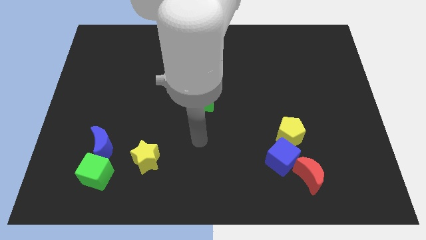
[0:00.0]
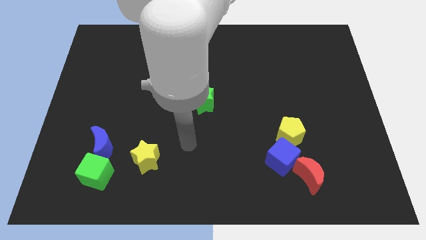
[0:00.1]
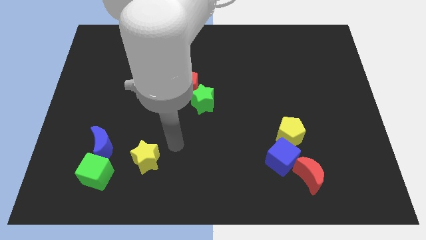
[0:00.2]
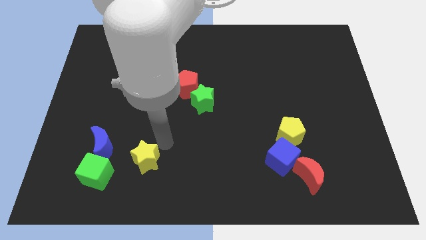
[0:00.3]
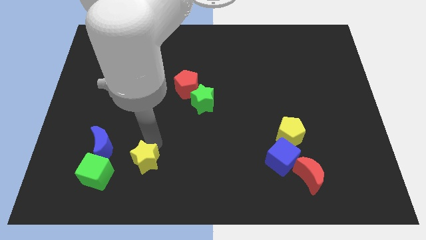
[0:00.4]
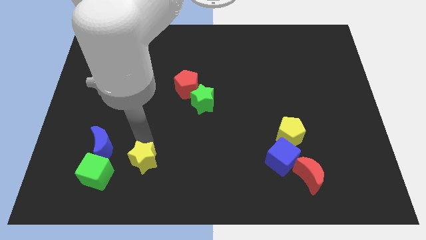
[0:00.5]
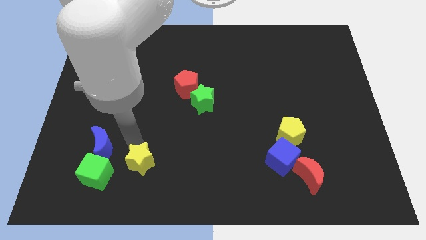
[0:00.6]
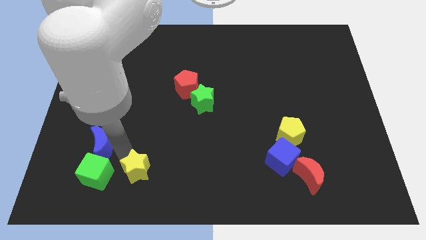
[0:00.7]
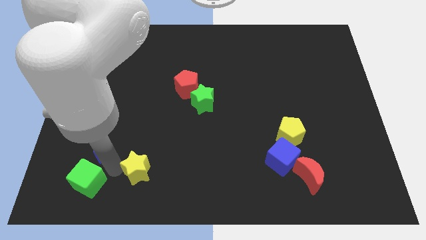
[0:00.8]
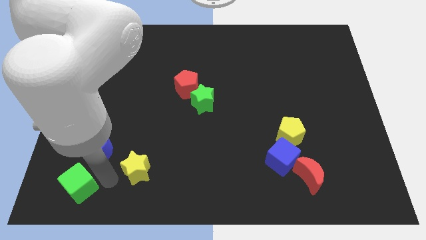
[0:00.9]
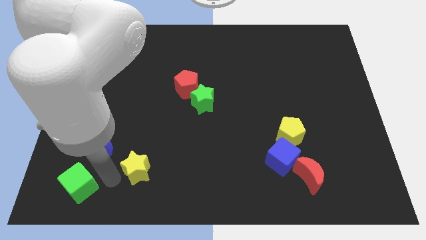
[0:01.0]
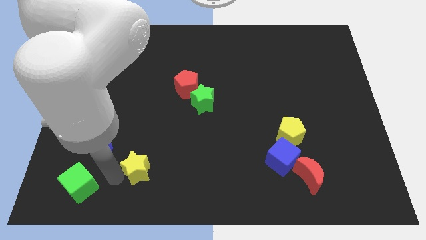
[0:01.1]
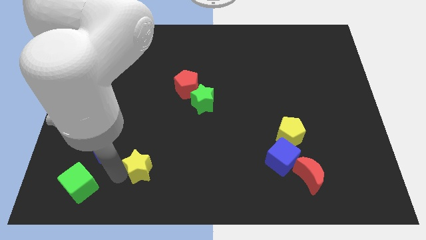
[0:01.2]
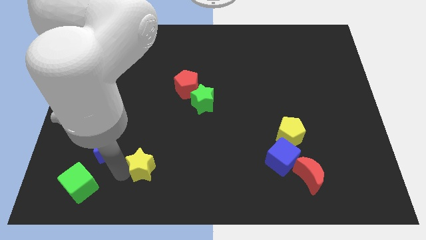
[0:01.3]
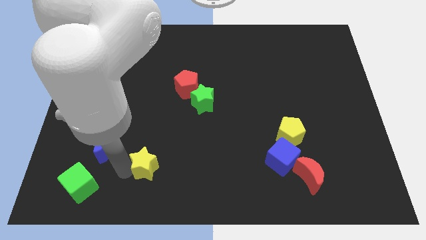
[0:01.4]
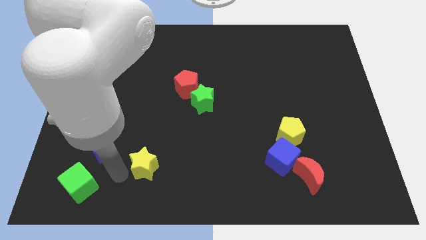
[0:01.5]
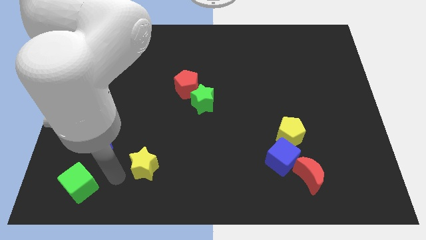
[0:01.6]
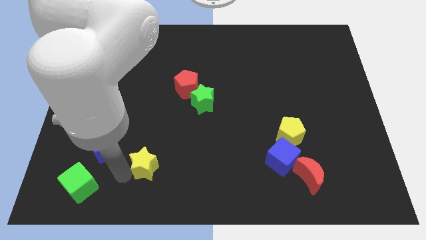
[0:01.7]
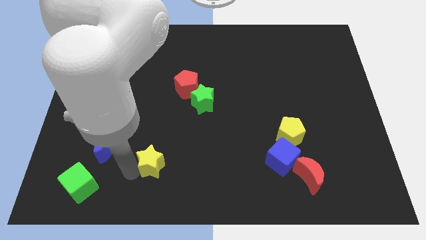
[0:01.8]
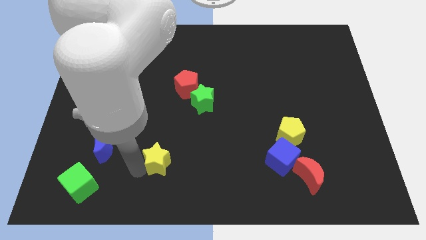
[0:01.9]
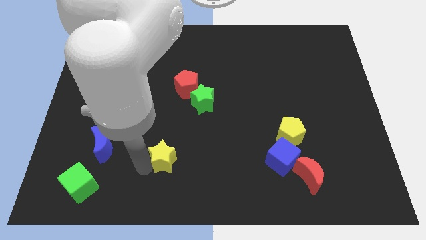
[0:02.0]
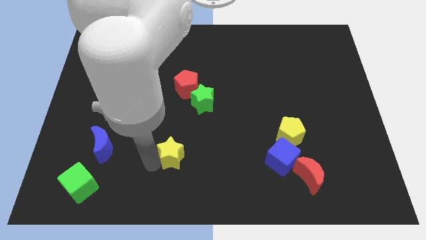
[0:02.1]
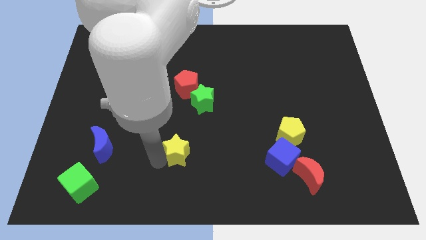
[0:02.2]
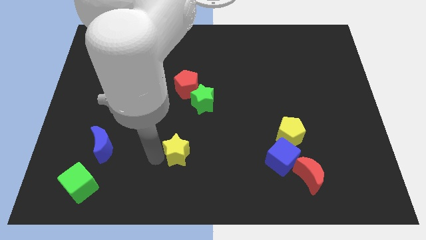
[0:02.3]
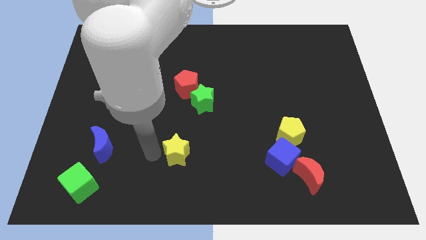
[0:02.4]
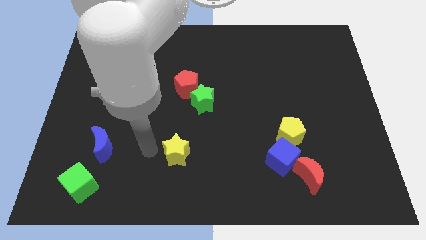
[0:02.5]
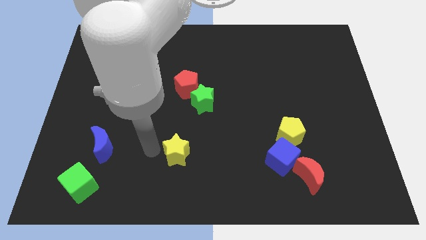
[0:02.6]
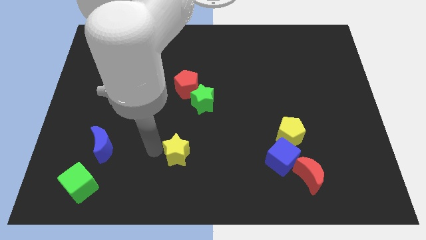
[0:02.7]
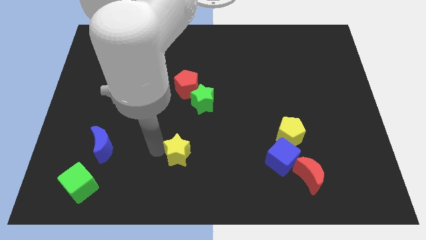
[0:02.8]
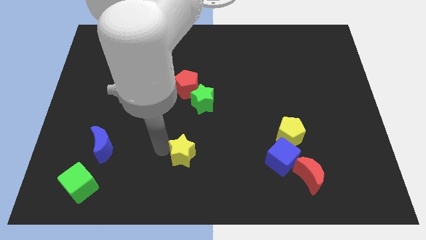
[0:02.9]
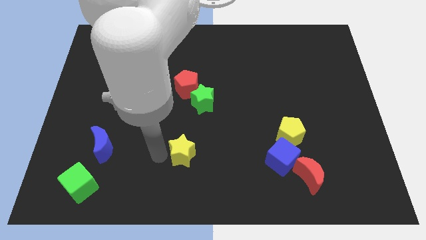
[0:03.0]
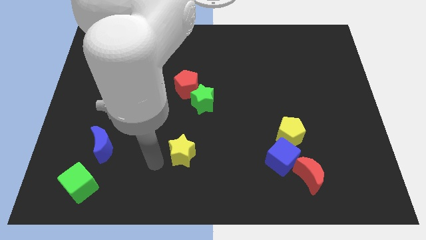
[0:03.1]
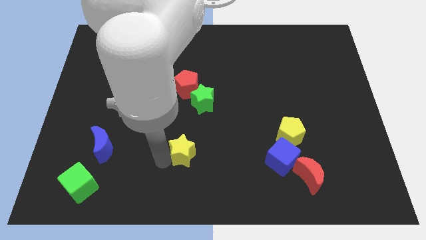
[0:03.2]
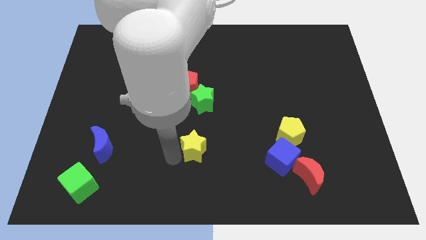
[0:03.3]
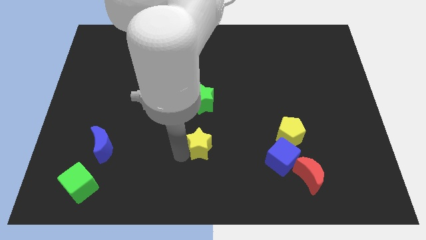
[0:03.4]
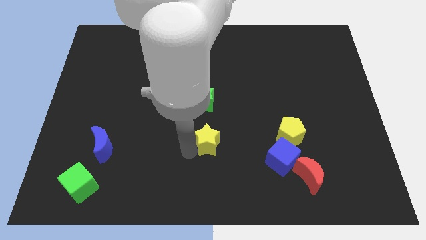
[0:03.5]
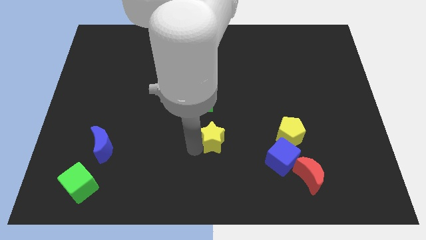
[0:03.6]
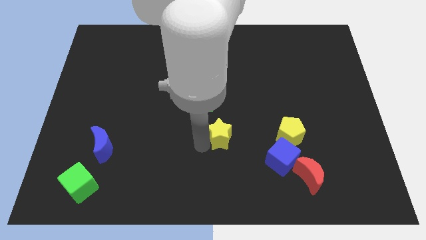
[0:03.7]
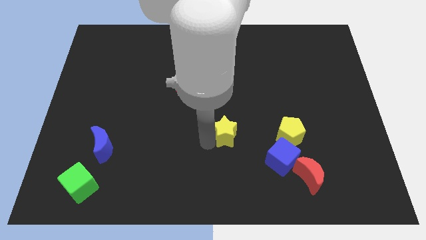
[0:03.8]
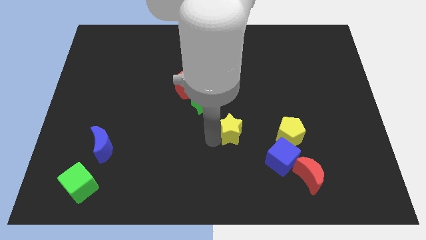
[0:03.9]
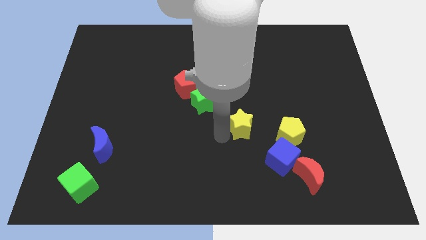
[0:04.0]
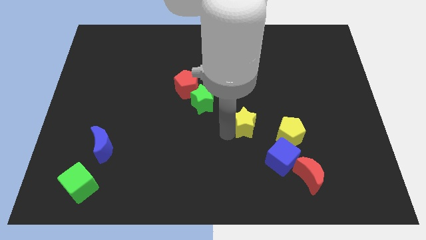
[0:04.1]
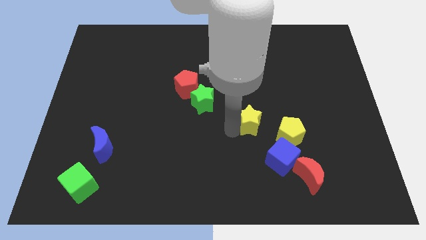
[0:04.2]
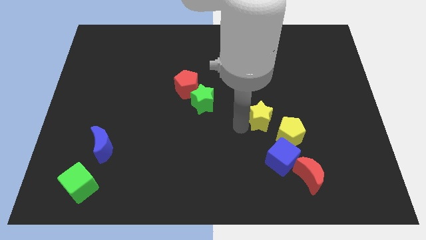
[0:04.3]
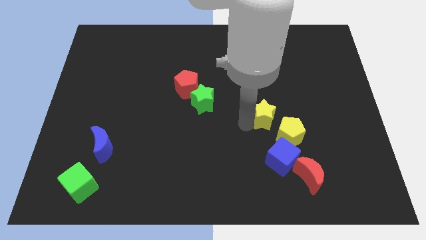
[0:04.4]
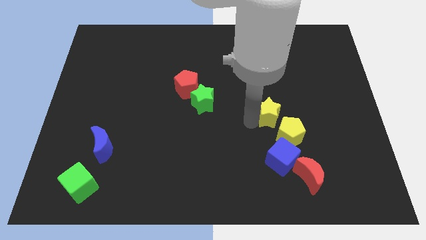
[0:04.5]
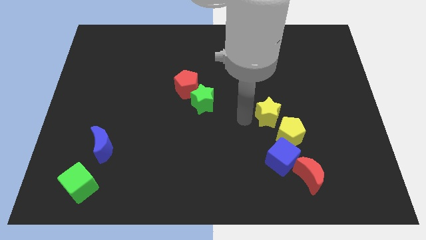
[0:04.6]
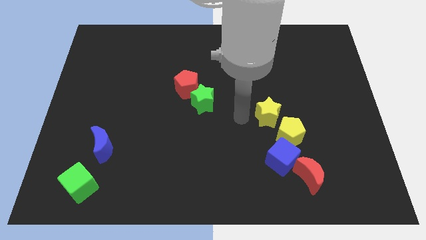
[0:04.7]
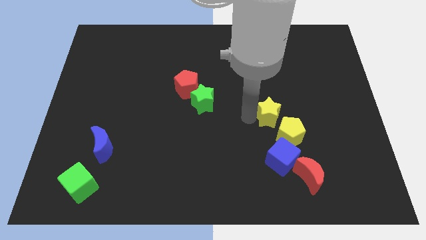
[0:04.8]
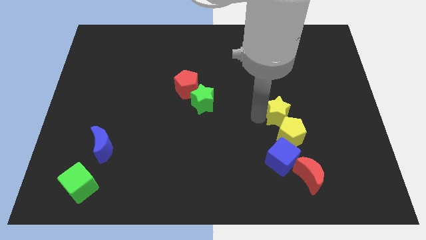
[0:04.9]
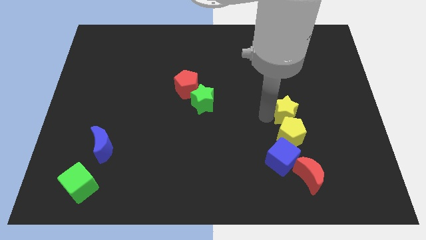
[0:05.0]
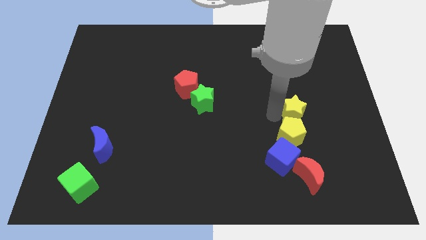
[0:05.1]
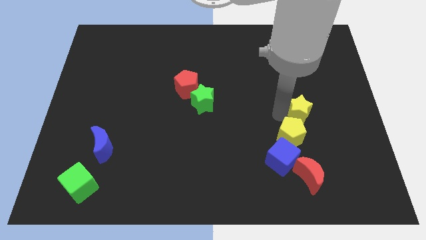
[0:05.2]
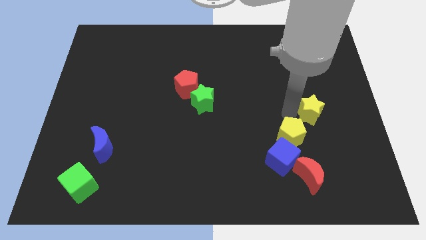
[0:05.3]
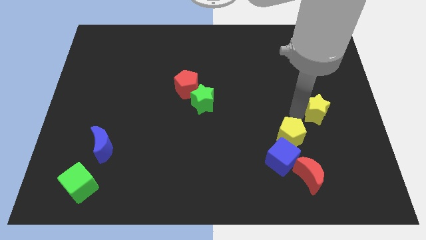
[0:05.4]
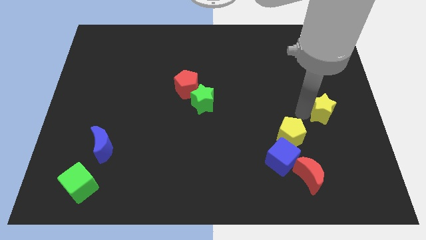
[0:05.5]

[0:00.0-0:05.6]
slide the yellow star to the right side of the board

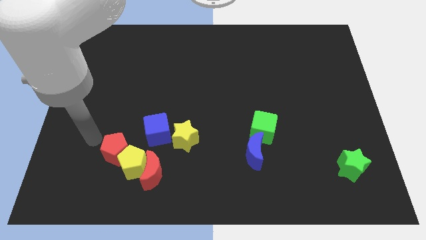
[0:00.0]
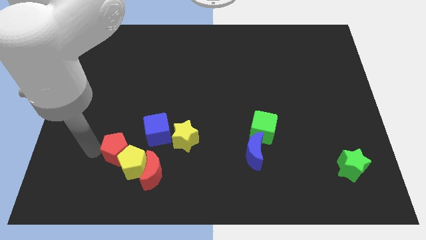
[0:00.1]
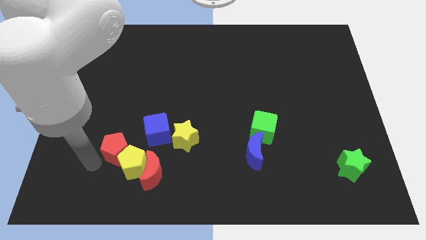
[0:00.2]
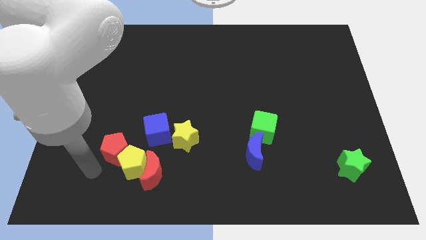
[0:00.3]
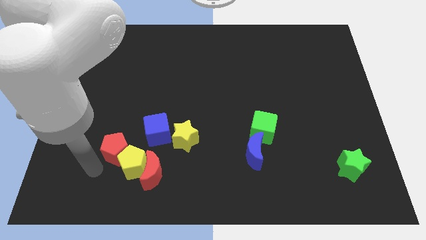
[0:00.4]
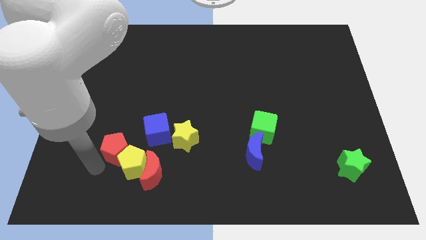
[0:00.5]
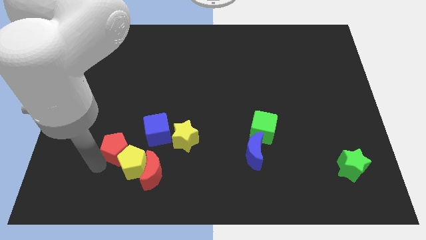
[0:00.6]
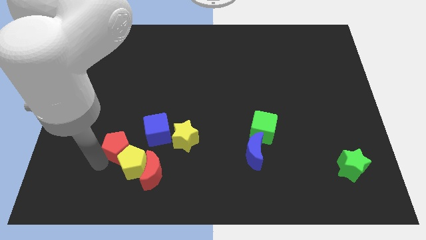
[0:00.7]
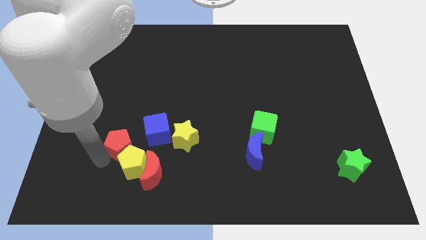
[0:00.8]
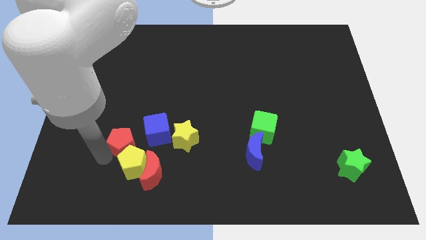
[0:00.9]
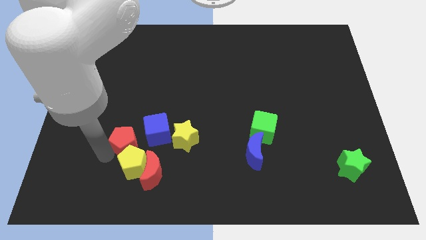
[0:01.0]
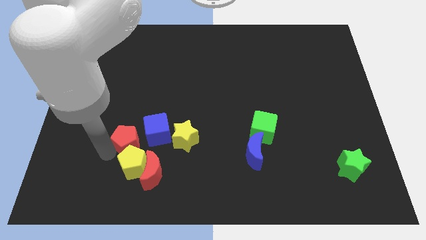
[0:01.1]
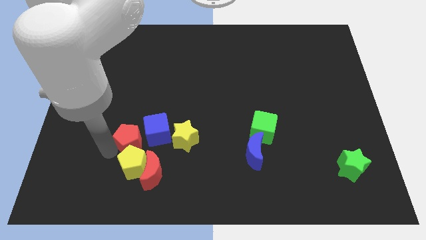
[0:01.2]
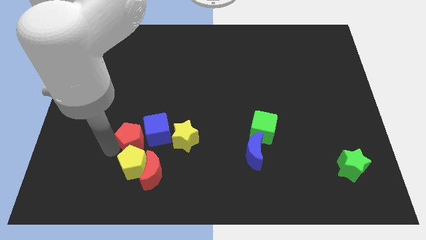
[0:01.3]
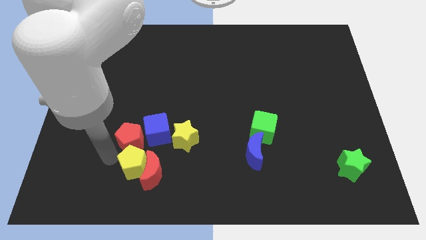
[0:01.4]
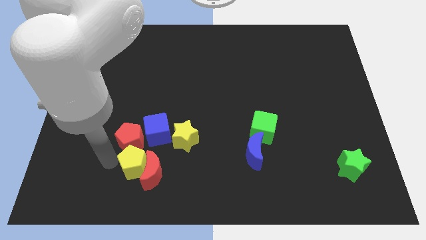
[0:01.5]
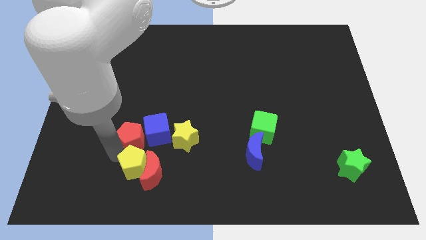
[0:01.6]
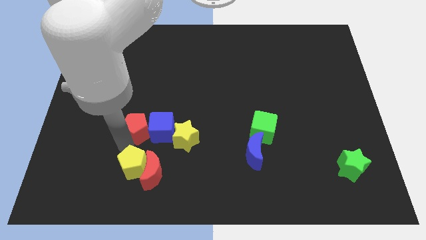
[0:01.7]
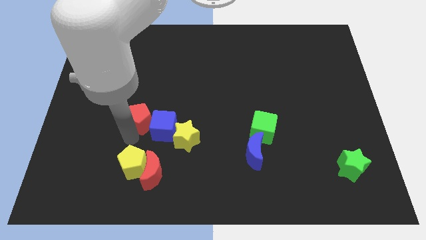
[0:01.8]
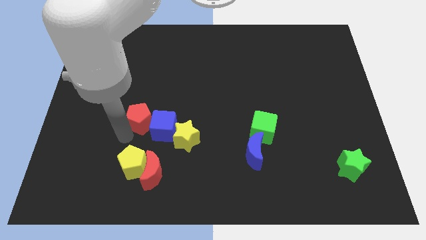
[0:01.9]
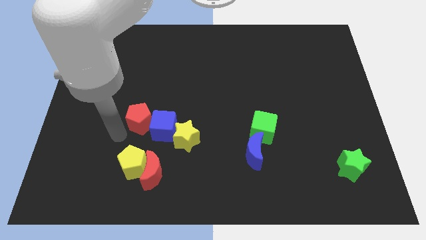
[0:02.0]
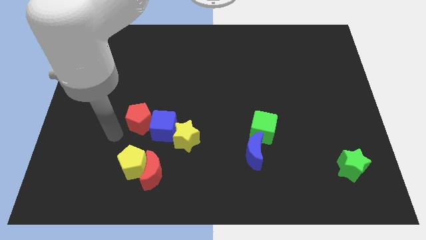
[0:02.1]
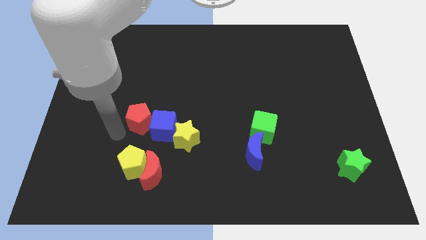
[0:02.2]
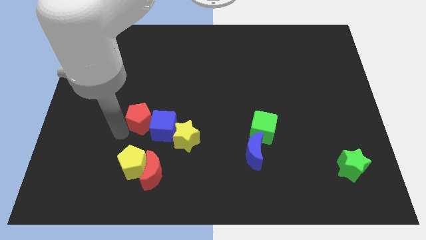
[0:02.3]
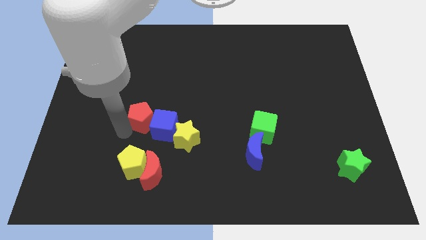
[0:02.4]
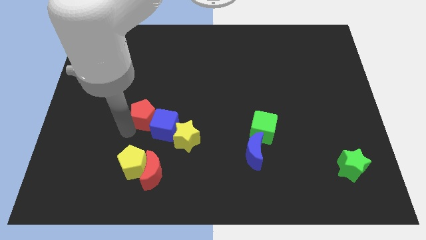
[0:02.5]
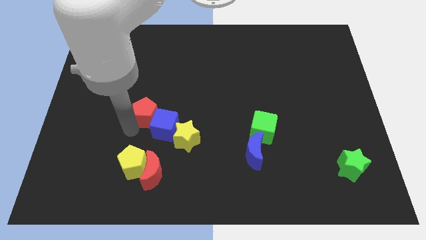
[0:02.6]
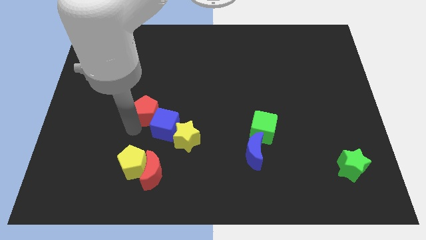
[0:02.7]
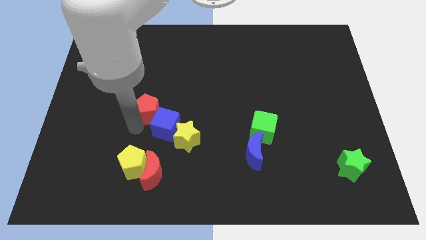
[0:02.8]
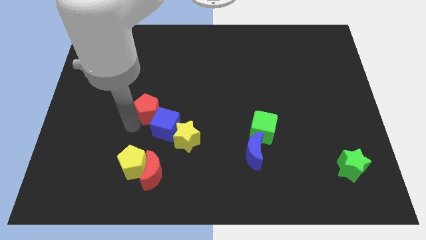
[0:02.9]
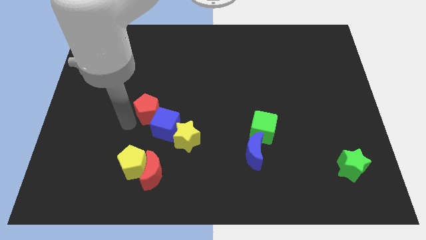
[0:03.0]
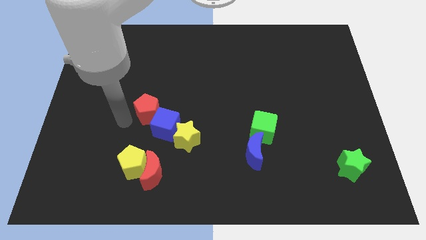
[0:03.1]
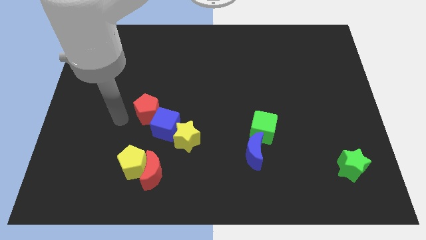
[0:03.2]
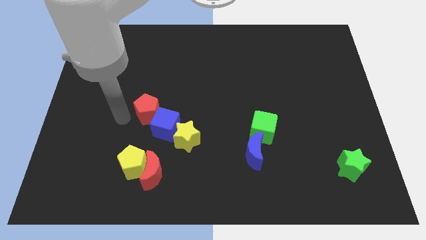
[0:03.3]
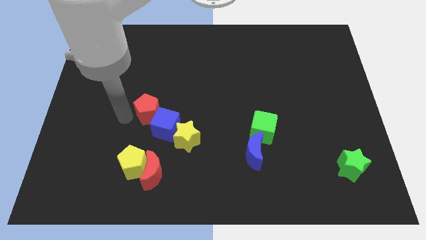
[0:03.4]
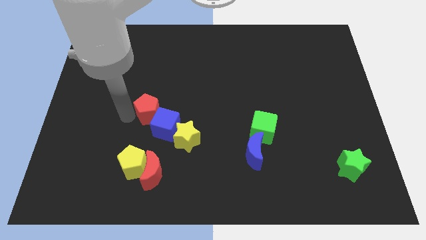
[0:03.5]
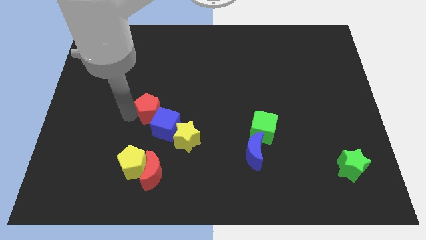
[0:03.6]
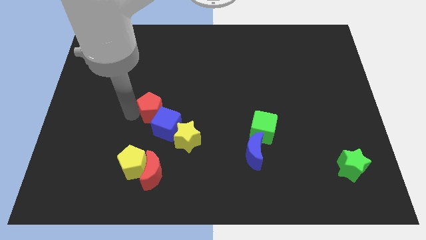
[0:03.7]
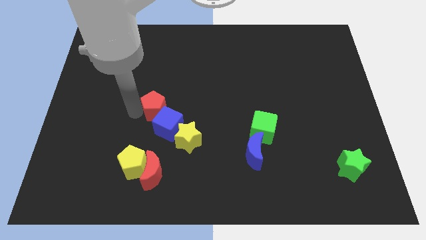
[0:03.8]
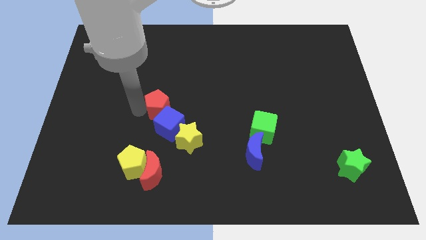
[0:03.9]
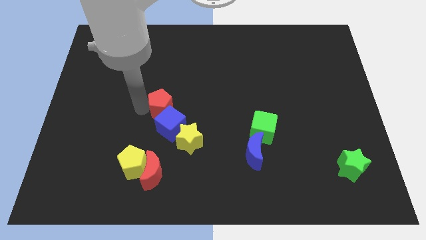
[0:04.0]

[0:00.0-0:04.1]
slide the red pentagon to the center of the board
